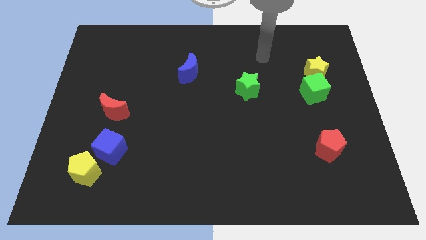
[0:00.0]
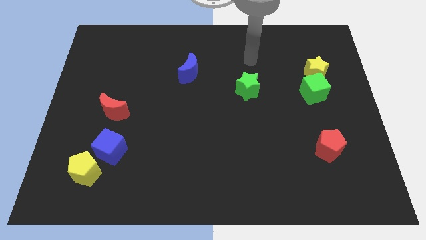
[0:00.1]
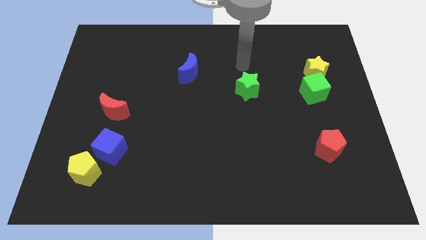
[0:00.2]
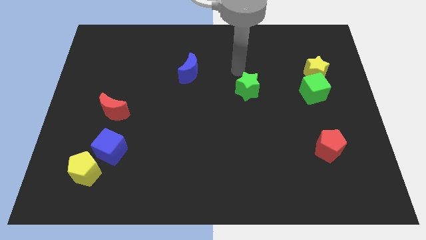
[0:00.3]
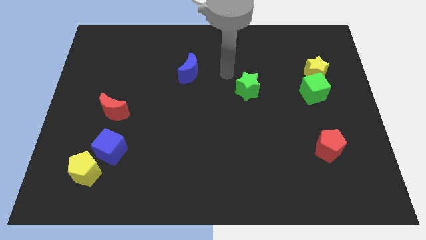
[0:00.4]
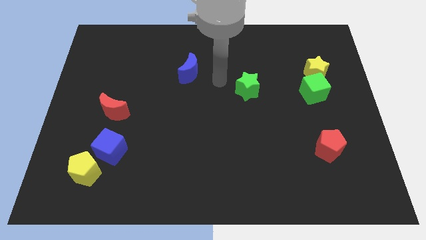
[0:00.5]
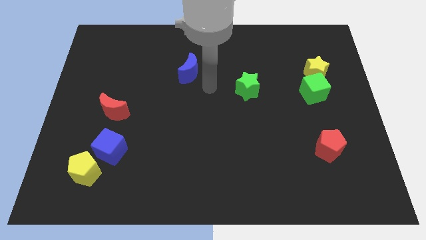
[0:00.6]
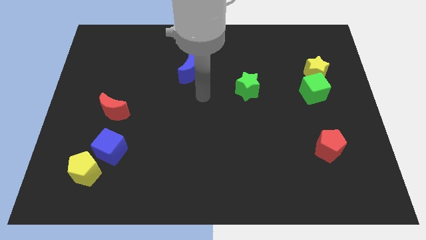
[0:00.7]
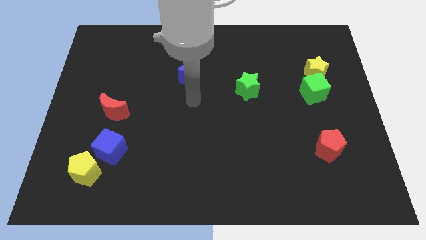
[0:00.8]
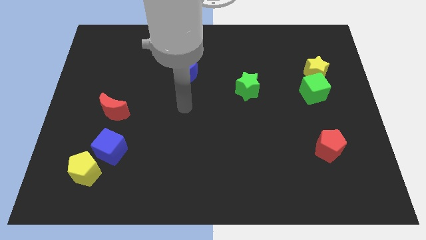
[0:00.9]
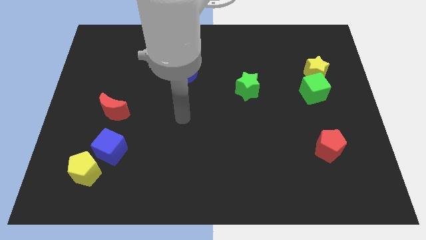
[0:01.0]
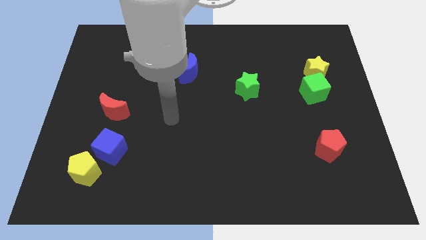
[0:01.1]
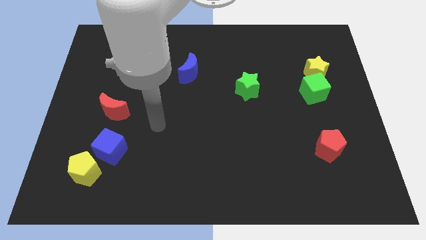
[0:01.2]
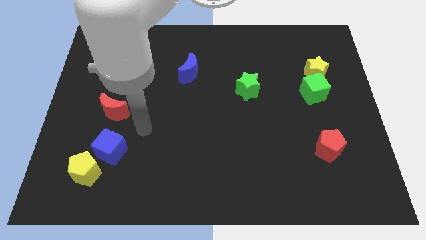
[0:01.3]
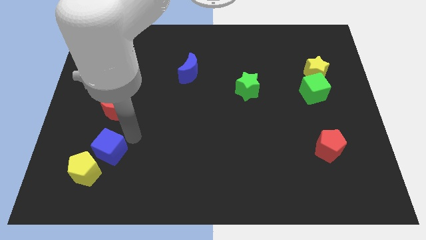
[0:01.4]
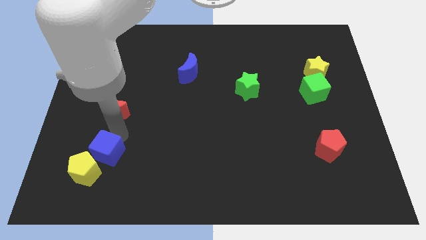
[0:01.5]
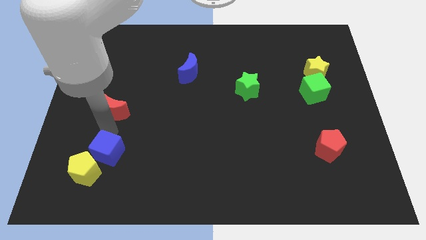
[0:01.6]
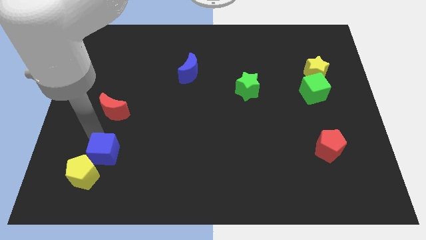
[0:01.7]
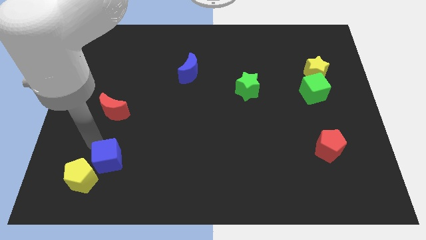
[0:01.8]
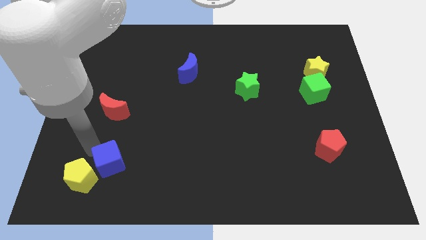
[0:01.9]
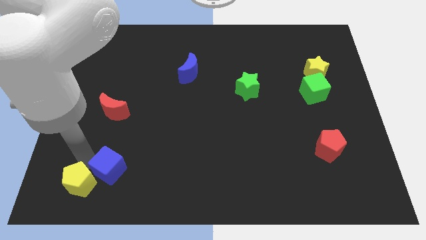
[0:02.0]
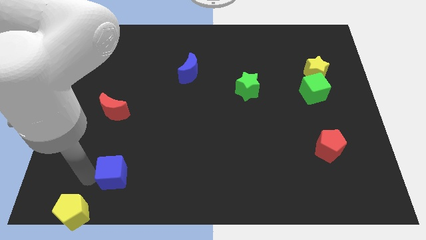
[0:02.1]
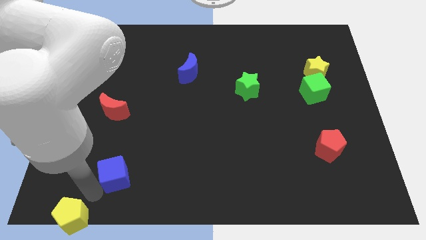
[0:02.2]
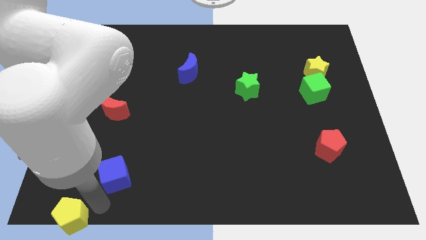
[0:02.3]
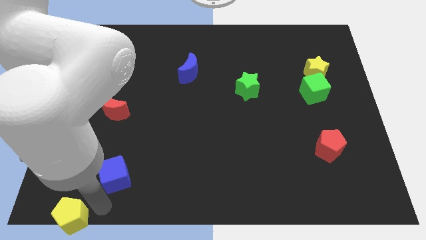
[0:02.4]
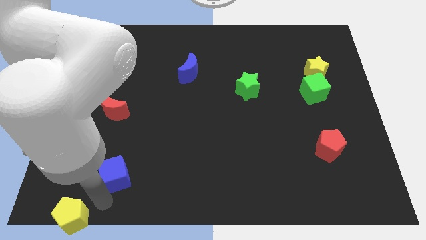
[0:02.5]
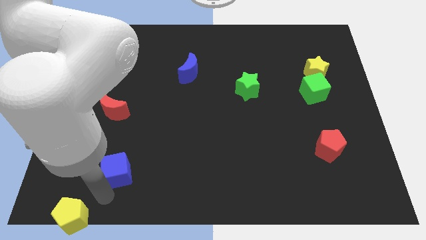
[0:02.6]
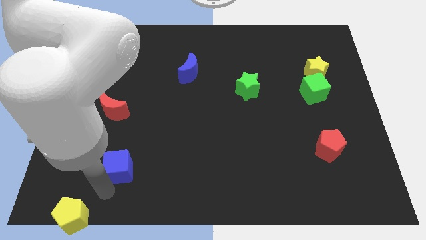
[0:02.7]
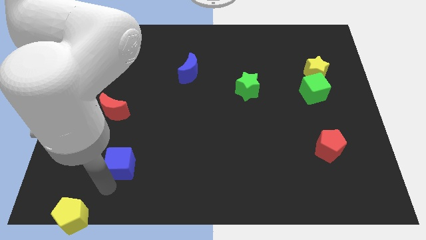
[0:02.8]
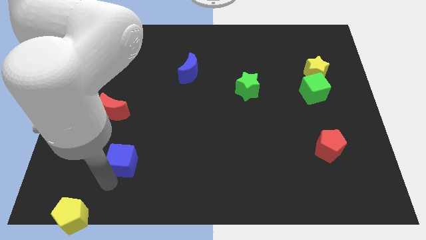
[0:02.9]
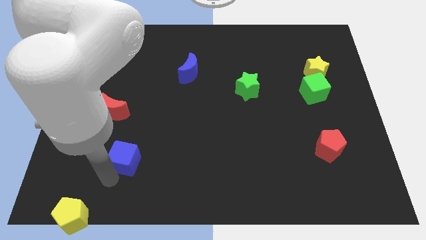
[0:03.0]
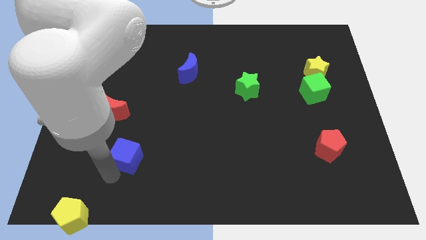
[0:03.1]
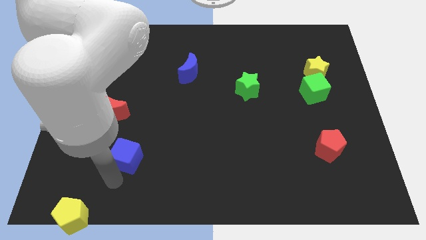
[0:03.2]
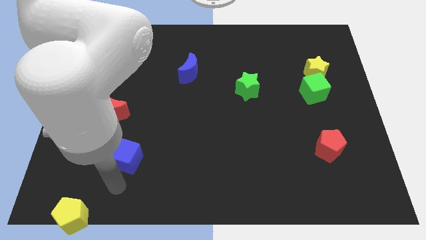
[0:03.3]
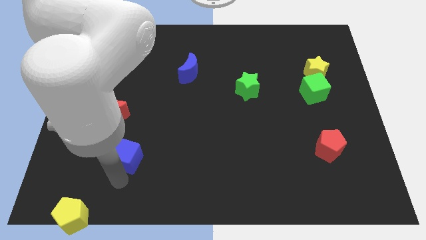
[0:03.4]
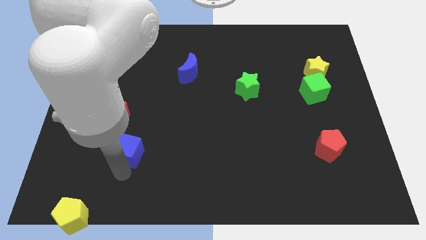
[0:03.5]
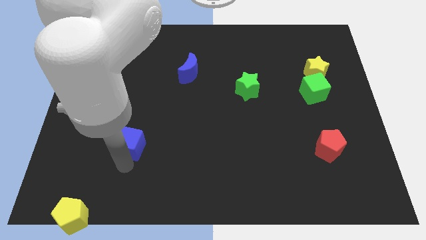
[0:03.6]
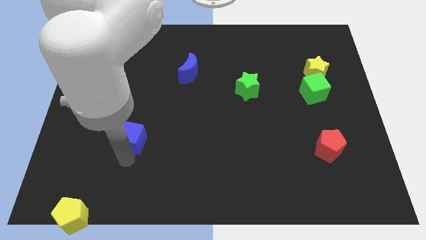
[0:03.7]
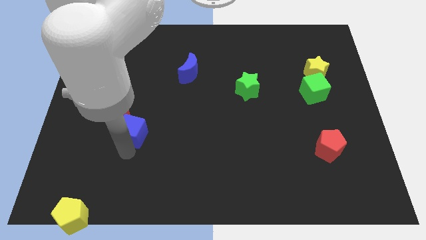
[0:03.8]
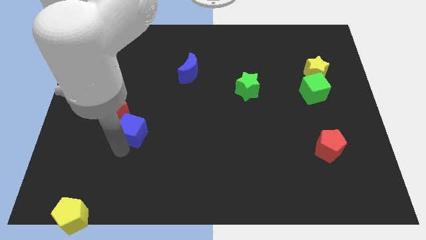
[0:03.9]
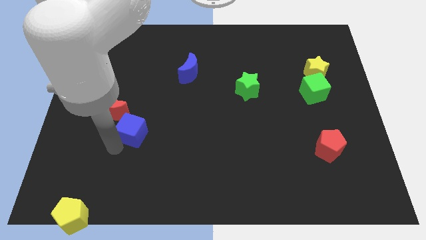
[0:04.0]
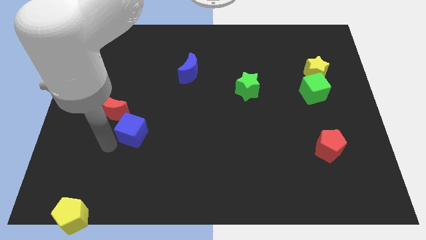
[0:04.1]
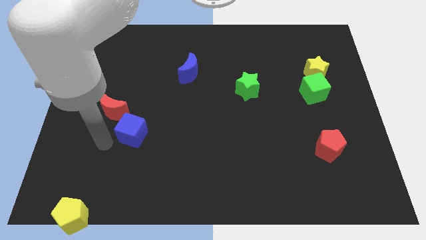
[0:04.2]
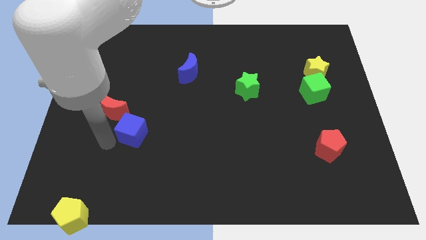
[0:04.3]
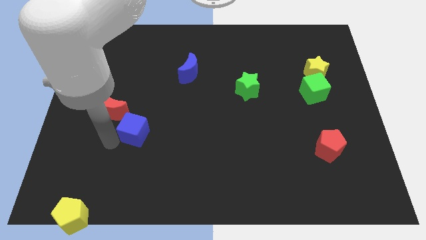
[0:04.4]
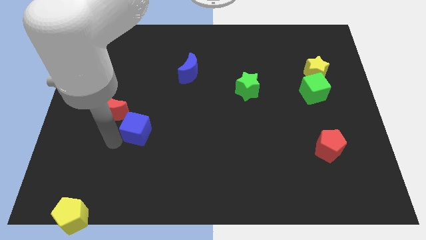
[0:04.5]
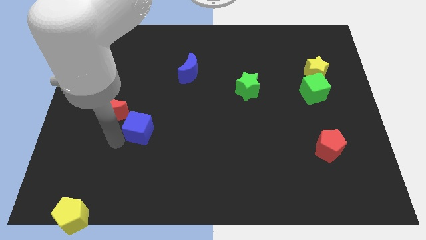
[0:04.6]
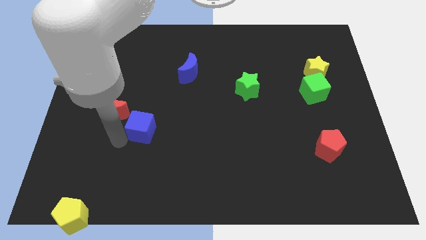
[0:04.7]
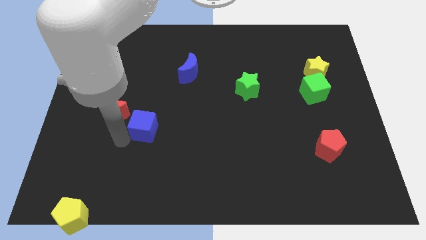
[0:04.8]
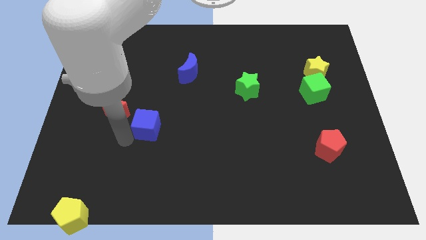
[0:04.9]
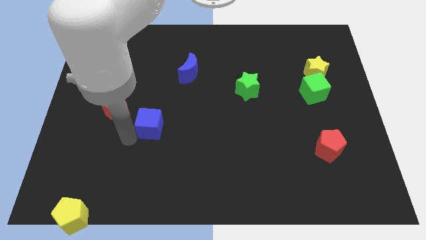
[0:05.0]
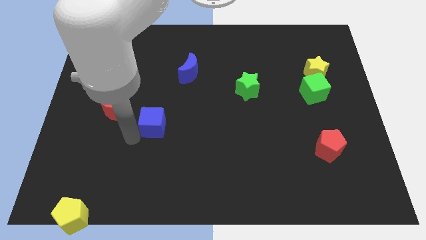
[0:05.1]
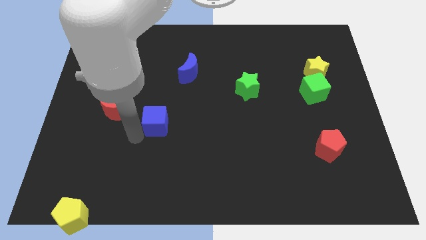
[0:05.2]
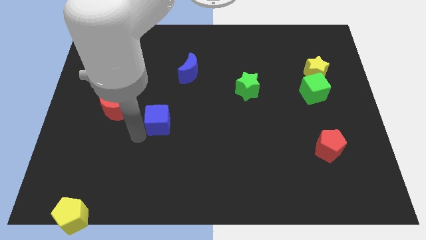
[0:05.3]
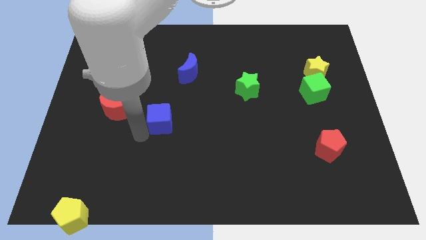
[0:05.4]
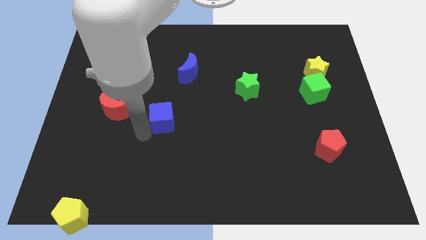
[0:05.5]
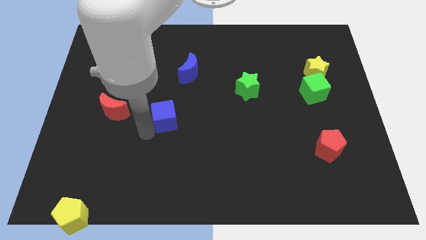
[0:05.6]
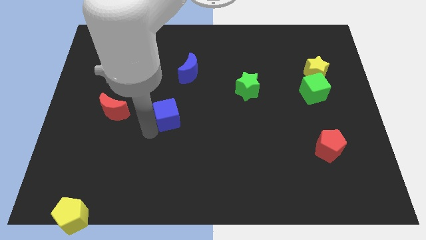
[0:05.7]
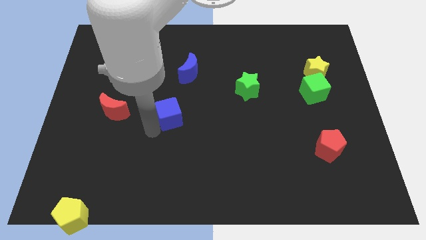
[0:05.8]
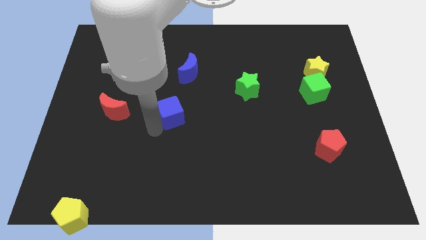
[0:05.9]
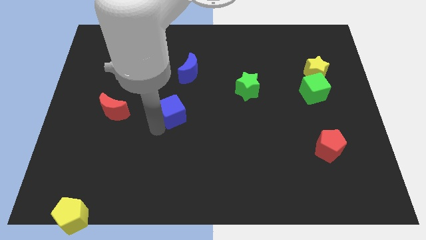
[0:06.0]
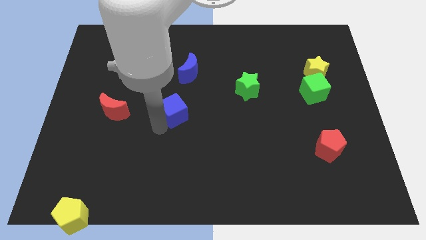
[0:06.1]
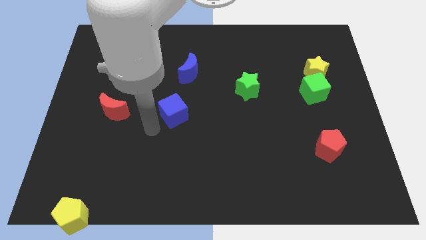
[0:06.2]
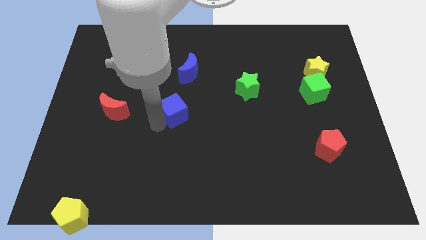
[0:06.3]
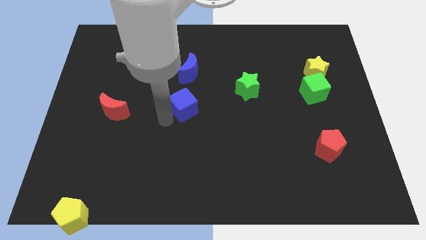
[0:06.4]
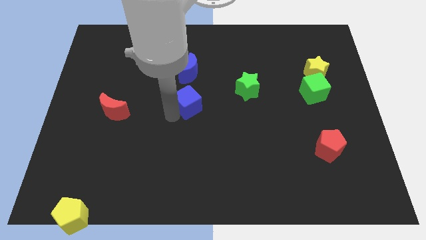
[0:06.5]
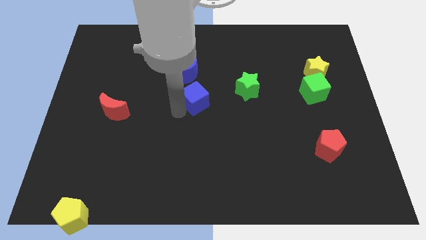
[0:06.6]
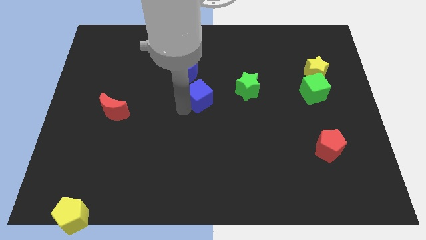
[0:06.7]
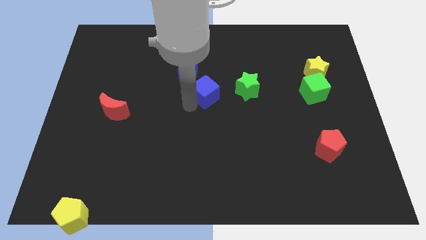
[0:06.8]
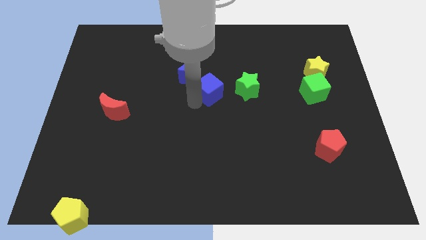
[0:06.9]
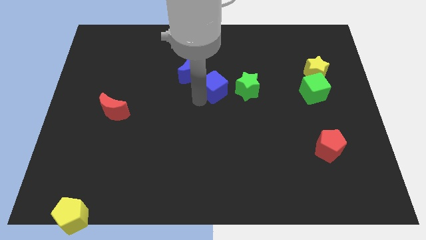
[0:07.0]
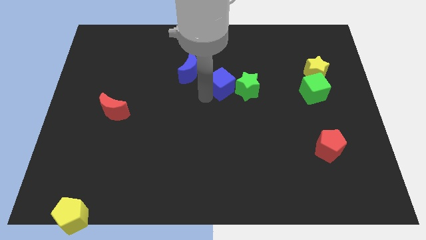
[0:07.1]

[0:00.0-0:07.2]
push the blue cube right of the blue moon

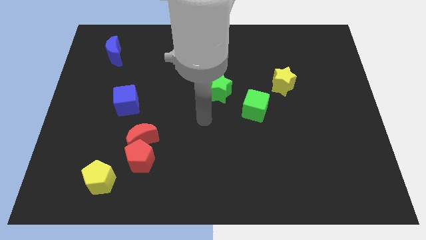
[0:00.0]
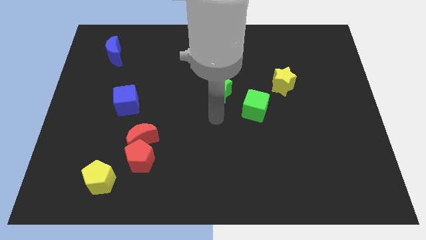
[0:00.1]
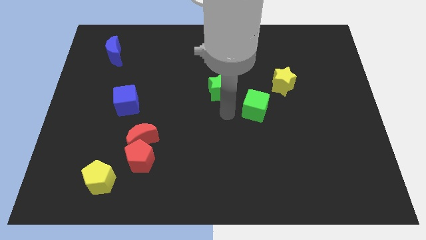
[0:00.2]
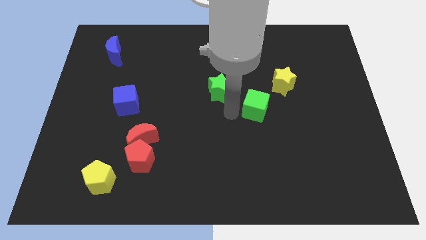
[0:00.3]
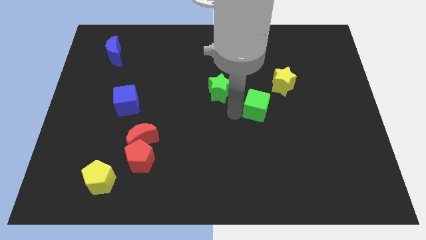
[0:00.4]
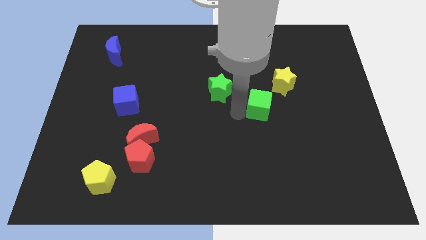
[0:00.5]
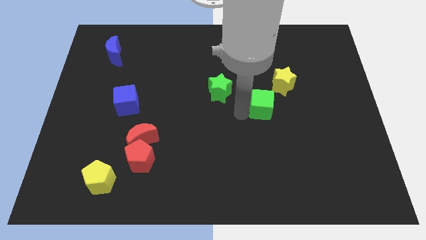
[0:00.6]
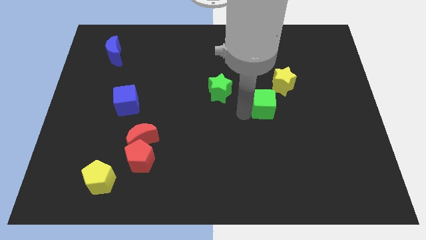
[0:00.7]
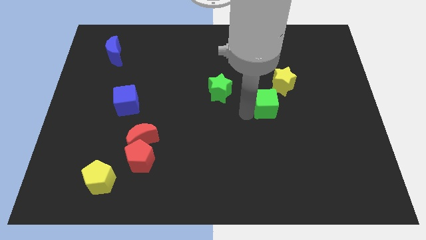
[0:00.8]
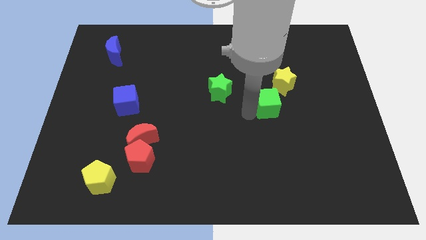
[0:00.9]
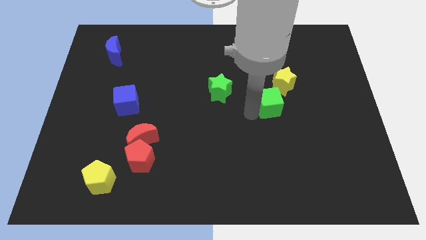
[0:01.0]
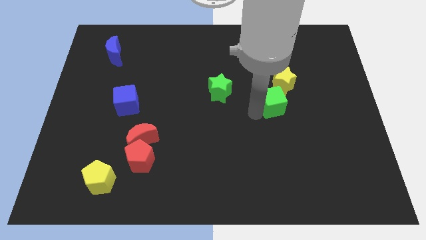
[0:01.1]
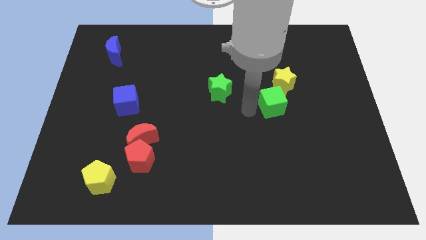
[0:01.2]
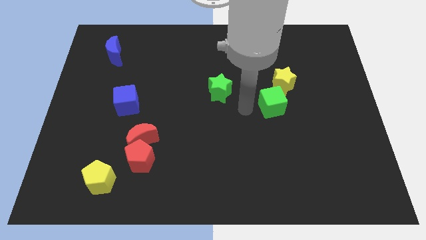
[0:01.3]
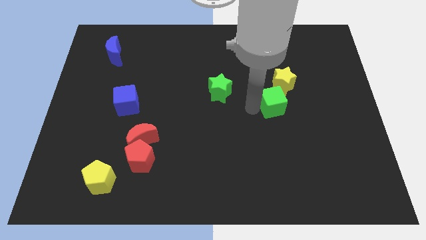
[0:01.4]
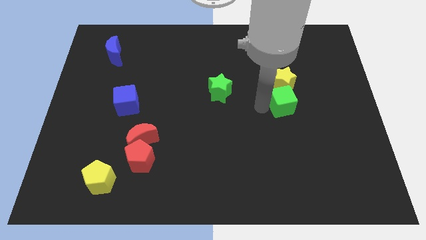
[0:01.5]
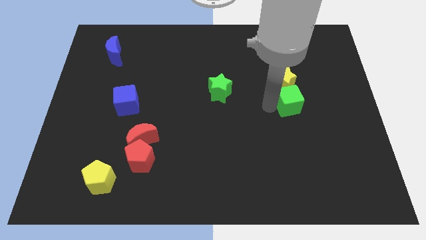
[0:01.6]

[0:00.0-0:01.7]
put the green cube diagonally down and to the right of the yellow star
